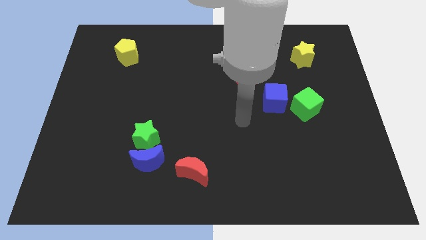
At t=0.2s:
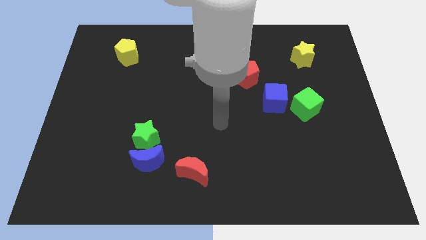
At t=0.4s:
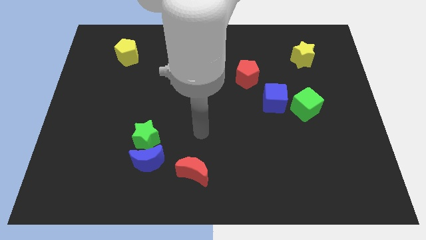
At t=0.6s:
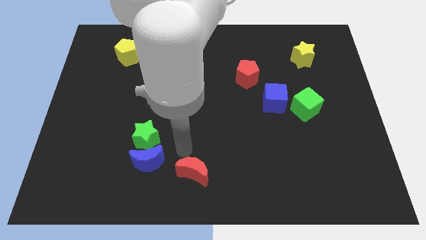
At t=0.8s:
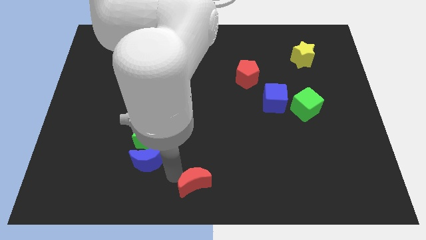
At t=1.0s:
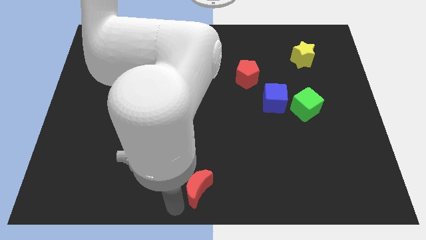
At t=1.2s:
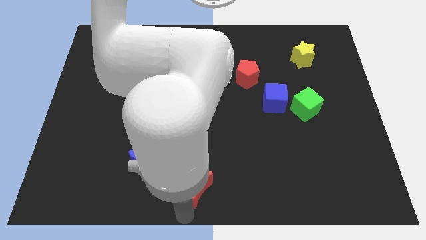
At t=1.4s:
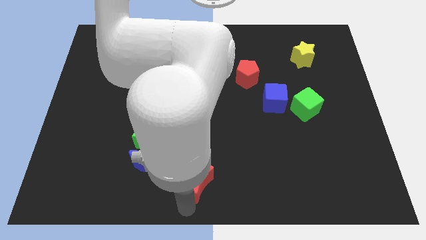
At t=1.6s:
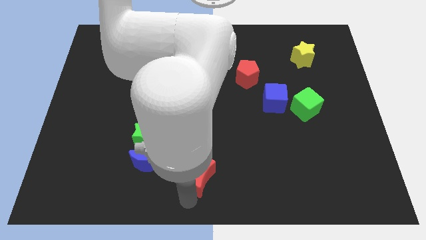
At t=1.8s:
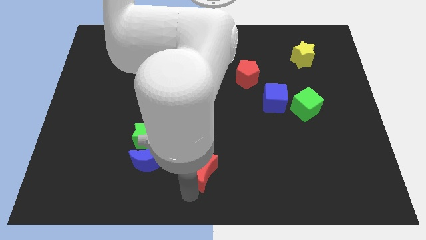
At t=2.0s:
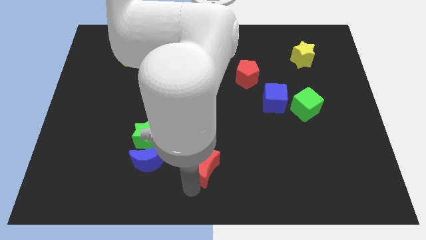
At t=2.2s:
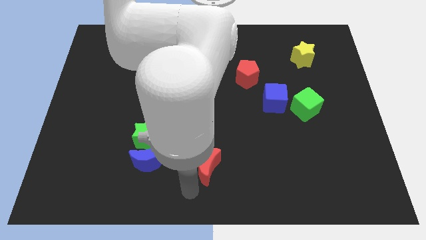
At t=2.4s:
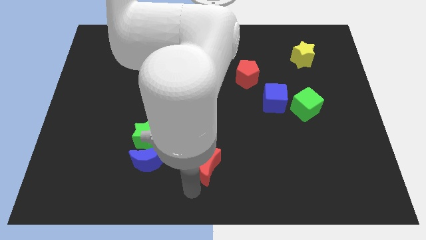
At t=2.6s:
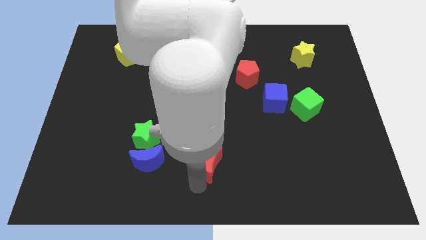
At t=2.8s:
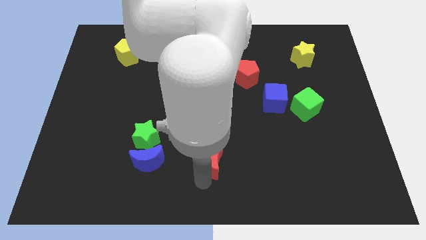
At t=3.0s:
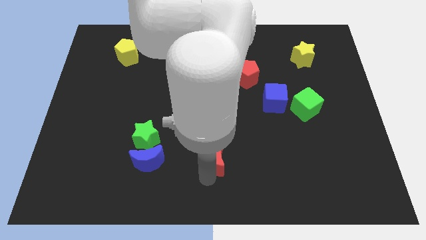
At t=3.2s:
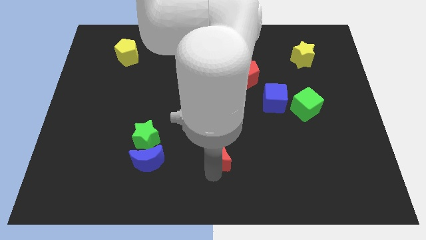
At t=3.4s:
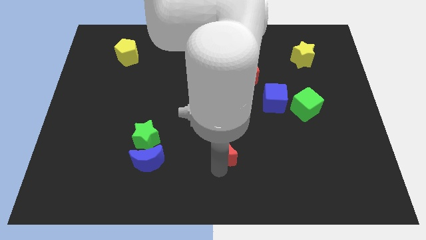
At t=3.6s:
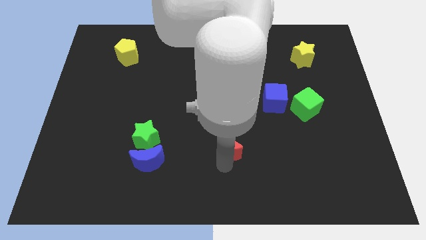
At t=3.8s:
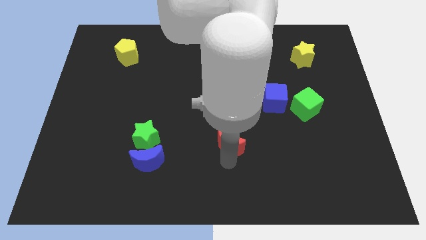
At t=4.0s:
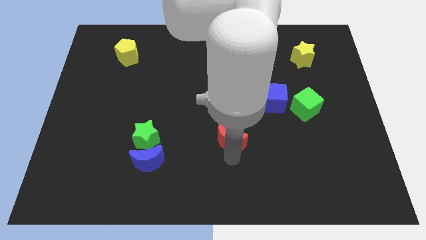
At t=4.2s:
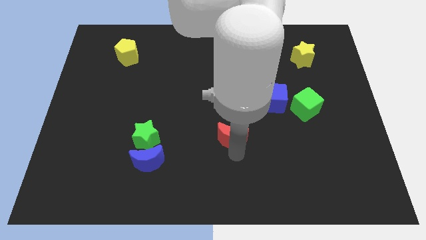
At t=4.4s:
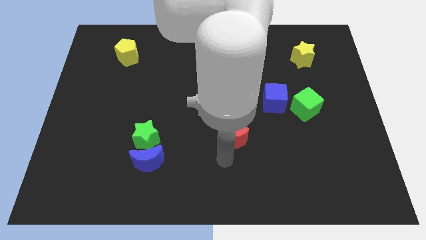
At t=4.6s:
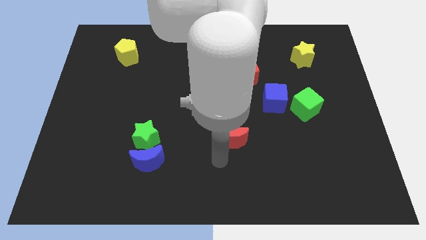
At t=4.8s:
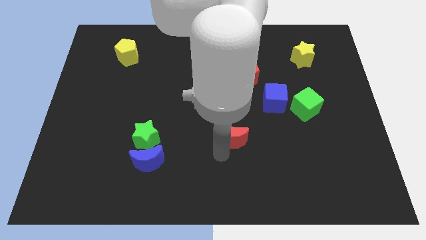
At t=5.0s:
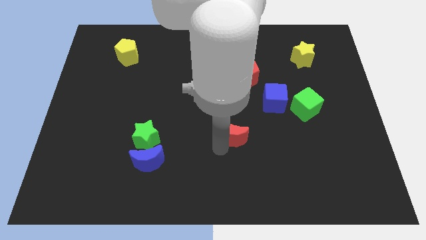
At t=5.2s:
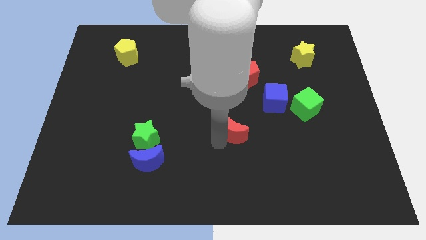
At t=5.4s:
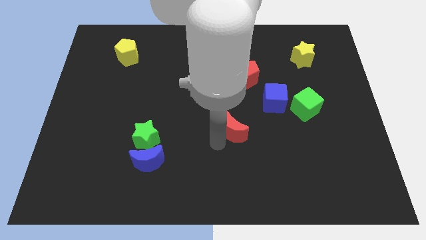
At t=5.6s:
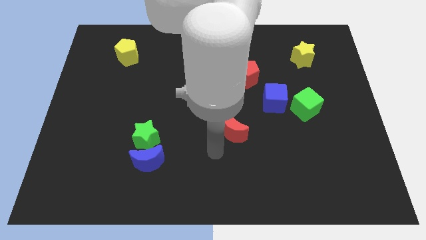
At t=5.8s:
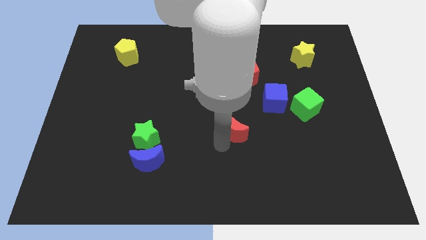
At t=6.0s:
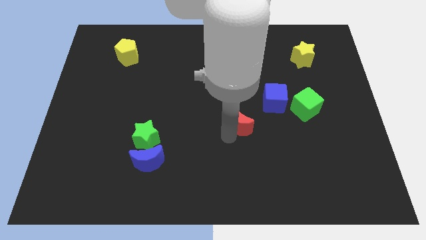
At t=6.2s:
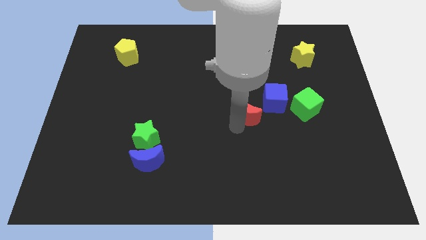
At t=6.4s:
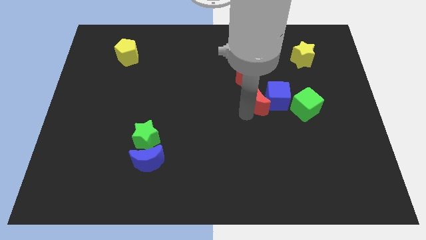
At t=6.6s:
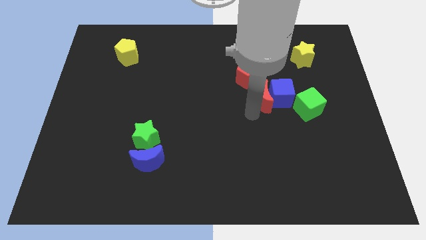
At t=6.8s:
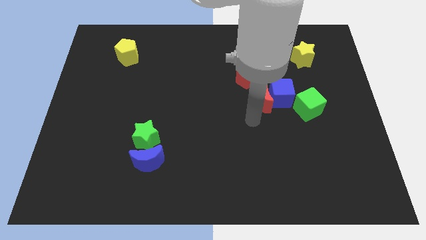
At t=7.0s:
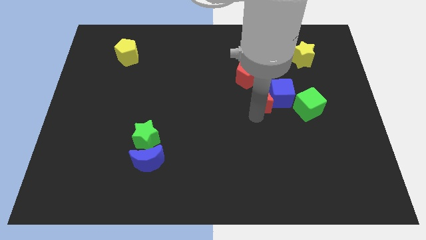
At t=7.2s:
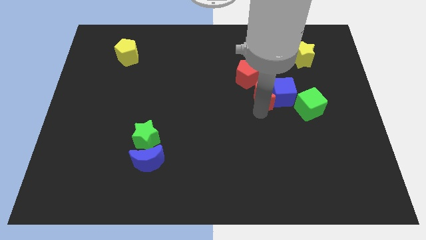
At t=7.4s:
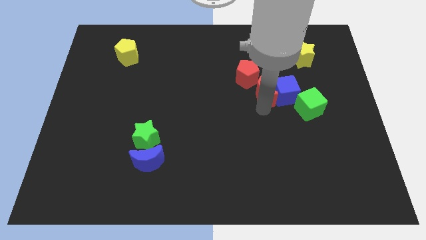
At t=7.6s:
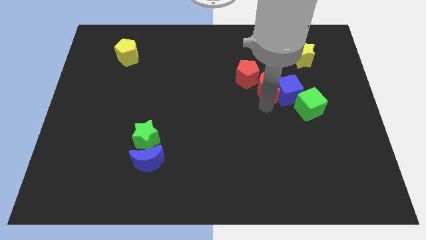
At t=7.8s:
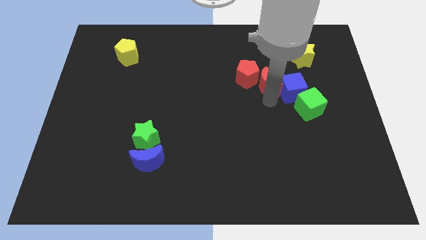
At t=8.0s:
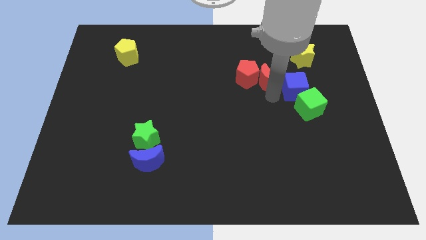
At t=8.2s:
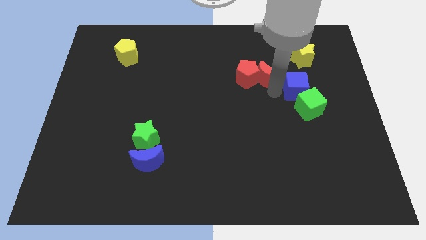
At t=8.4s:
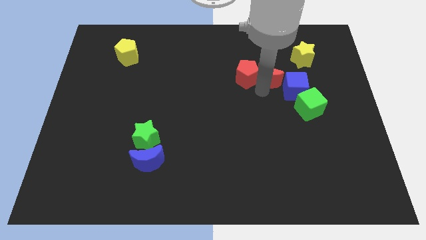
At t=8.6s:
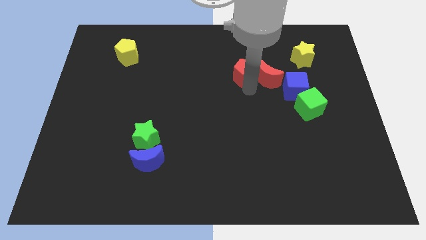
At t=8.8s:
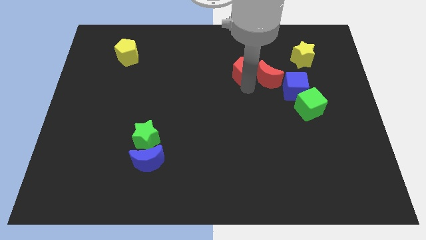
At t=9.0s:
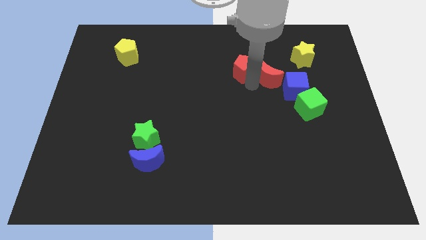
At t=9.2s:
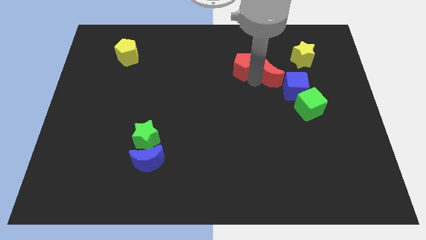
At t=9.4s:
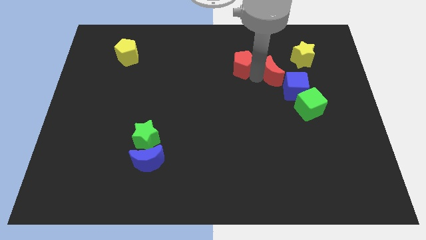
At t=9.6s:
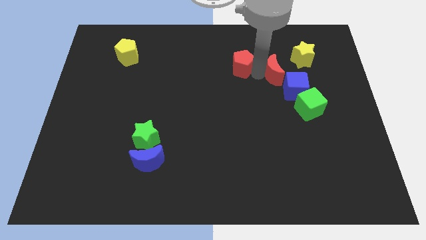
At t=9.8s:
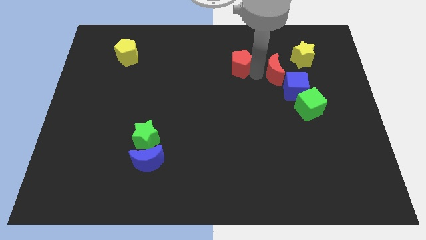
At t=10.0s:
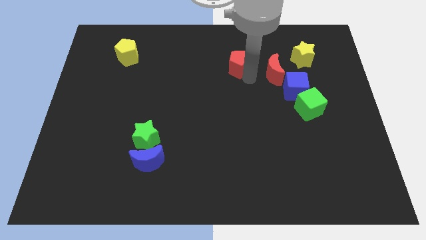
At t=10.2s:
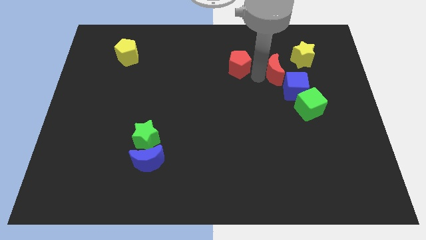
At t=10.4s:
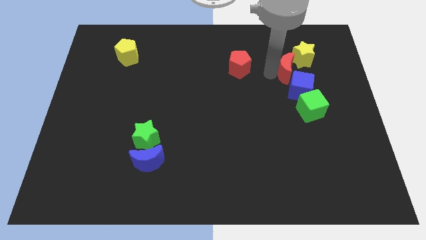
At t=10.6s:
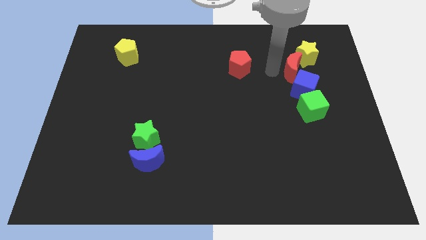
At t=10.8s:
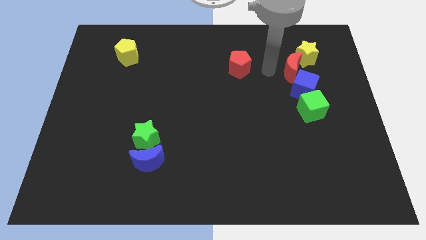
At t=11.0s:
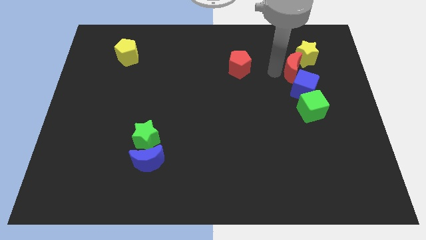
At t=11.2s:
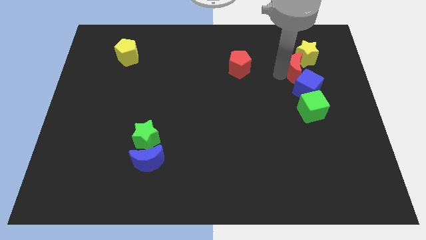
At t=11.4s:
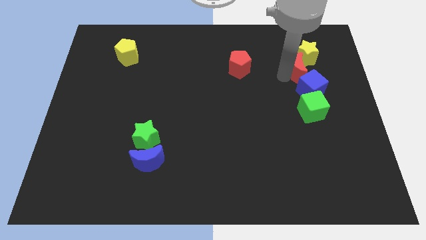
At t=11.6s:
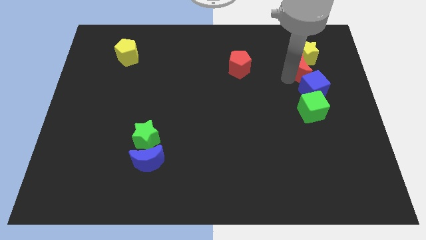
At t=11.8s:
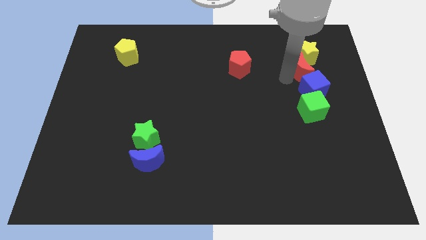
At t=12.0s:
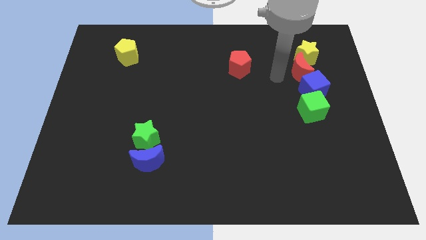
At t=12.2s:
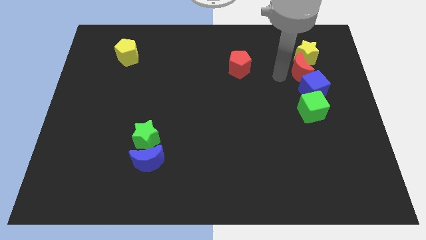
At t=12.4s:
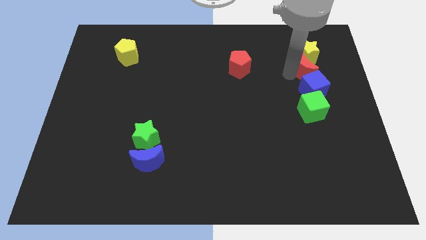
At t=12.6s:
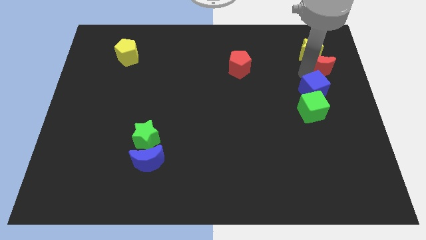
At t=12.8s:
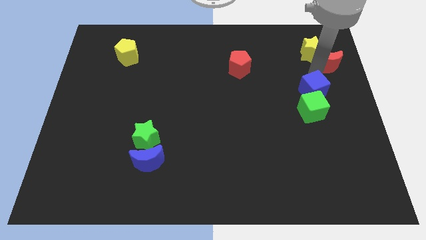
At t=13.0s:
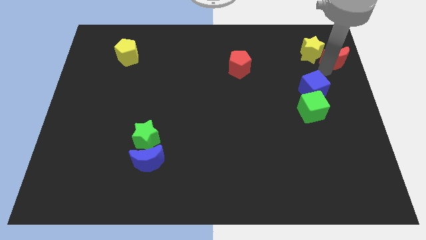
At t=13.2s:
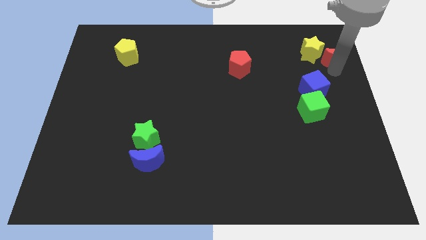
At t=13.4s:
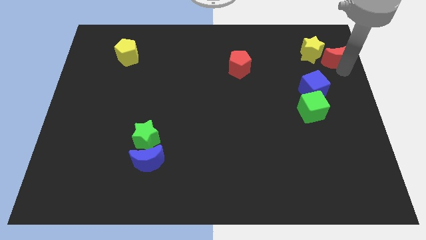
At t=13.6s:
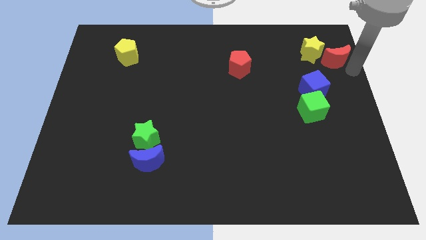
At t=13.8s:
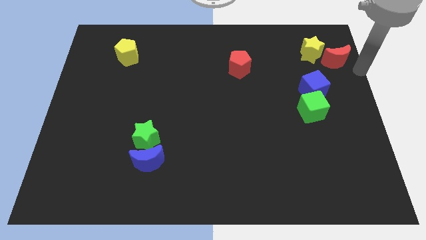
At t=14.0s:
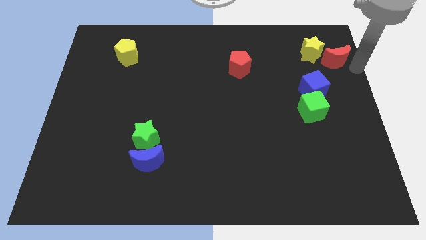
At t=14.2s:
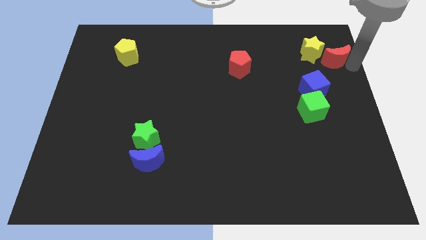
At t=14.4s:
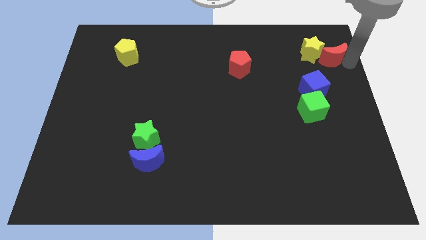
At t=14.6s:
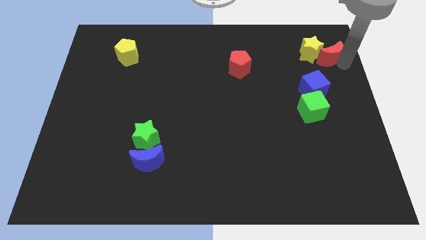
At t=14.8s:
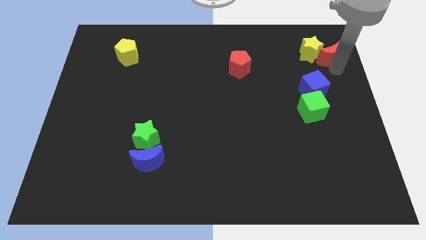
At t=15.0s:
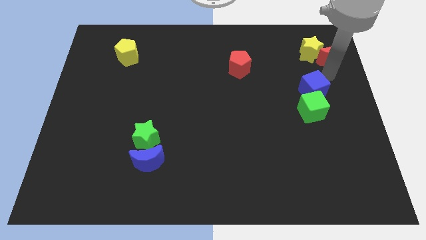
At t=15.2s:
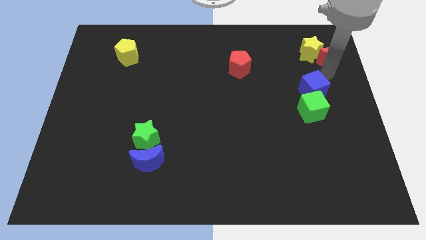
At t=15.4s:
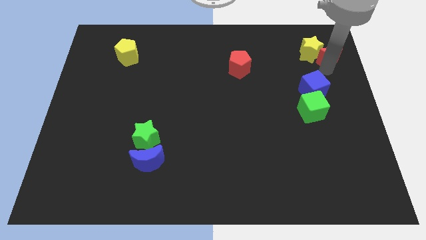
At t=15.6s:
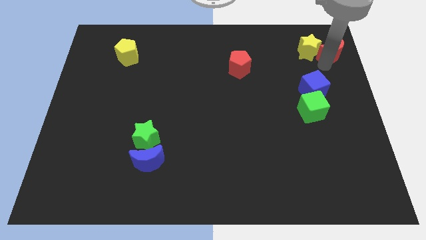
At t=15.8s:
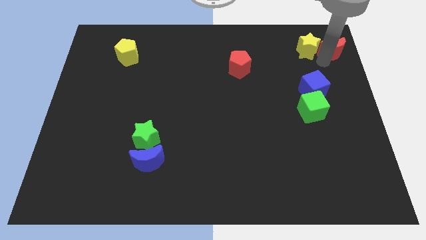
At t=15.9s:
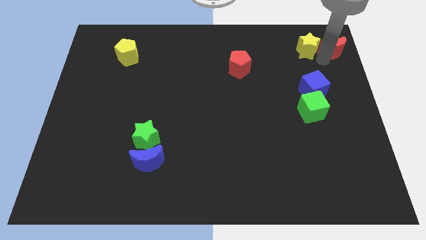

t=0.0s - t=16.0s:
move the red moon to the top right of the board
